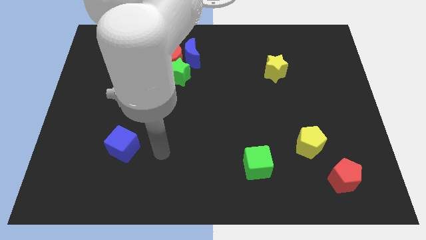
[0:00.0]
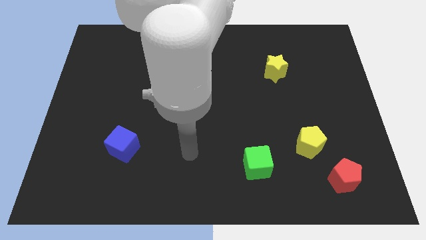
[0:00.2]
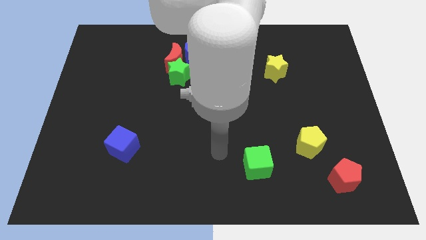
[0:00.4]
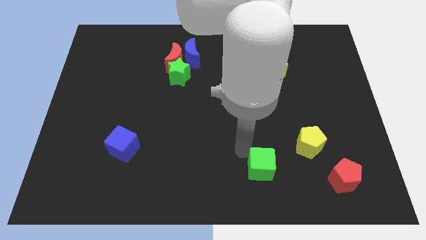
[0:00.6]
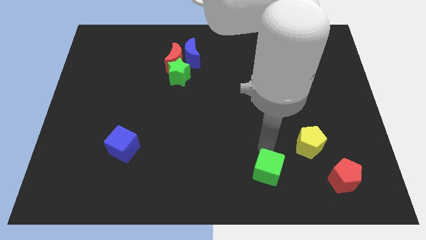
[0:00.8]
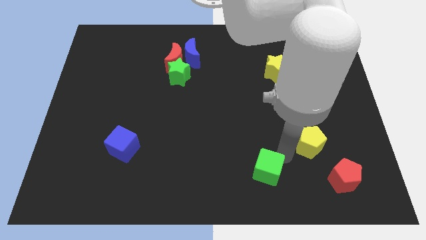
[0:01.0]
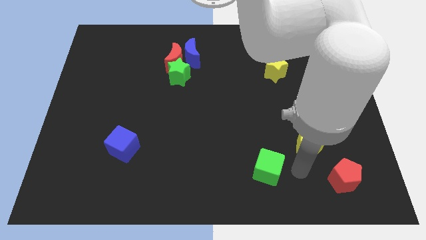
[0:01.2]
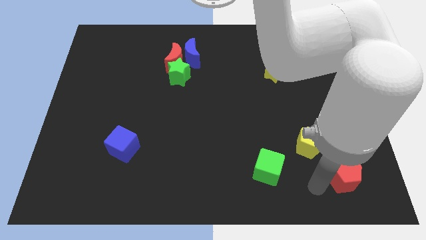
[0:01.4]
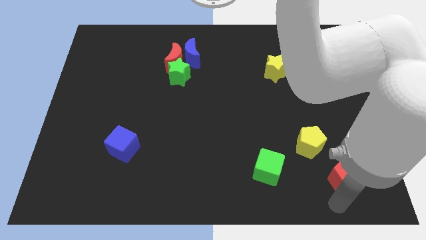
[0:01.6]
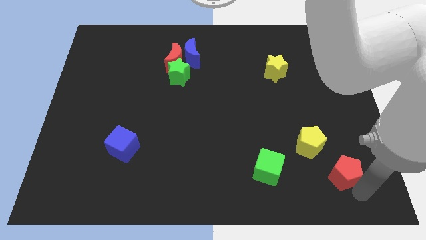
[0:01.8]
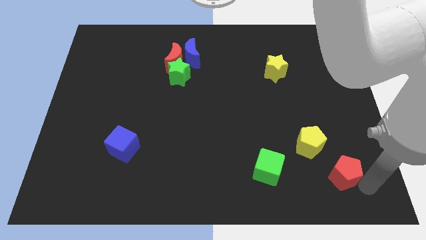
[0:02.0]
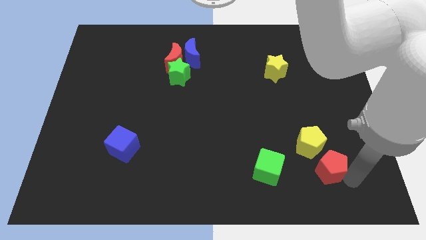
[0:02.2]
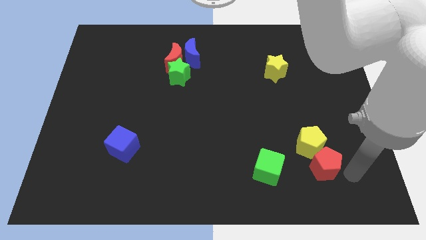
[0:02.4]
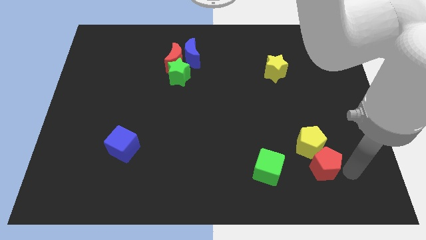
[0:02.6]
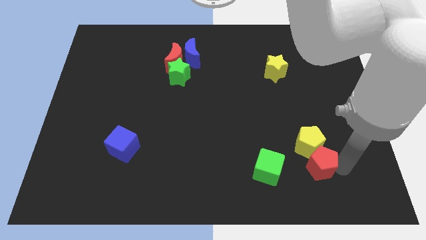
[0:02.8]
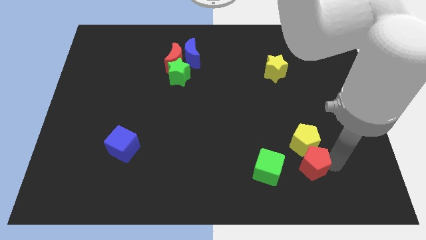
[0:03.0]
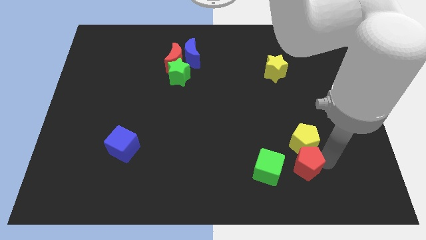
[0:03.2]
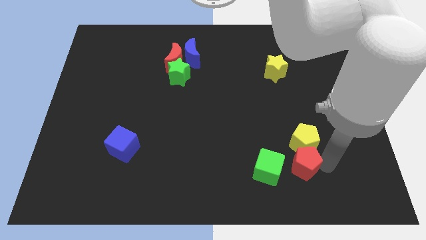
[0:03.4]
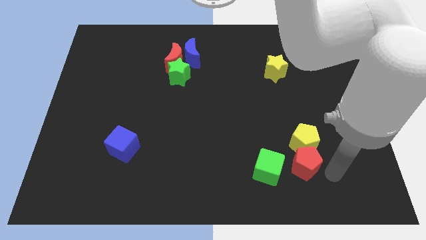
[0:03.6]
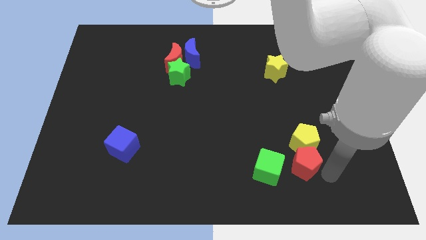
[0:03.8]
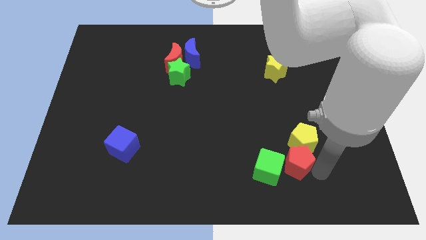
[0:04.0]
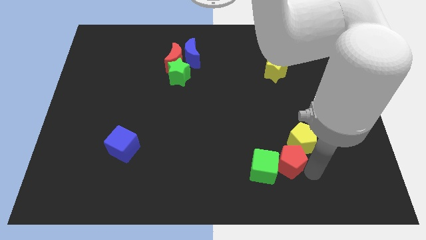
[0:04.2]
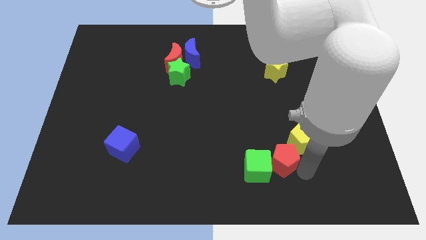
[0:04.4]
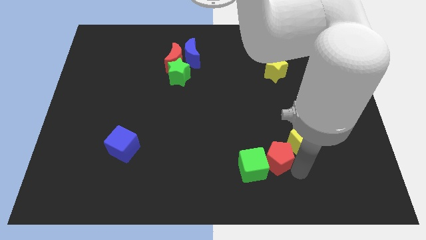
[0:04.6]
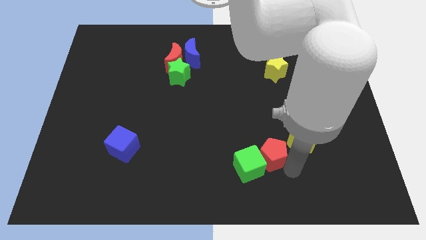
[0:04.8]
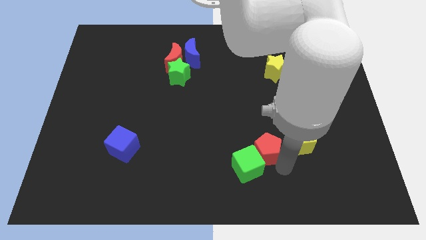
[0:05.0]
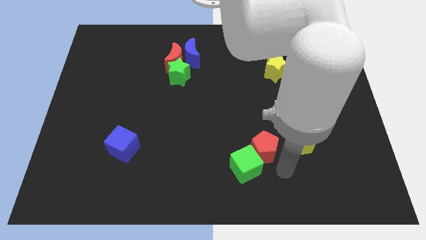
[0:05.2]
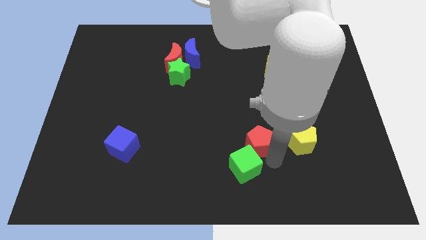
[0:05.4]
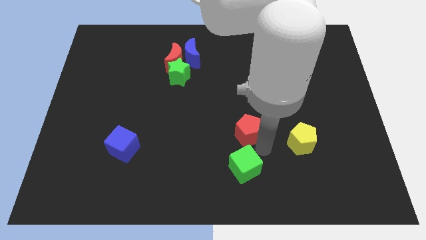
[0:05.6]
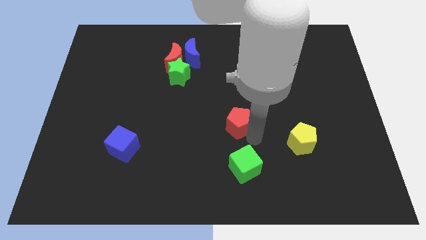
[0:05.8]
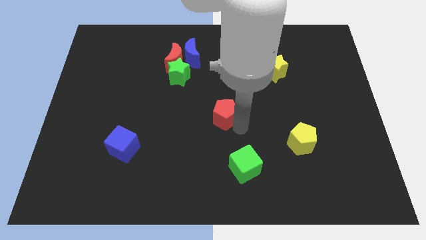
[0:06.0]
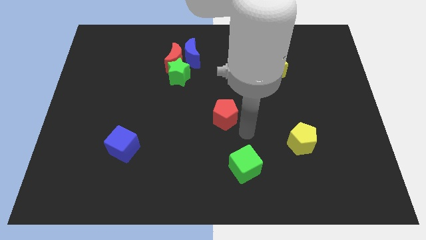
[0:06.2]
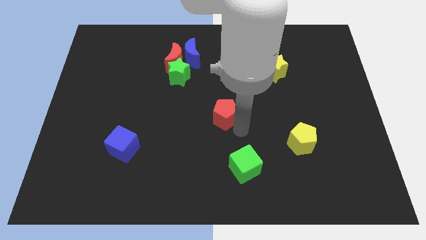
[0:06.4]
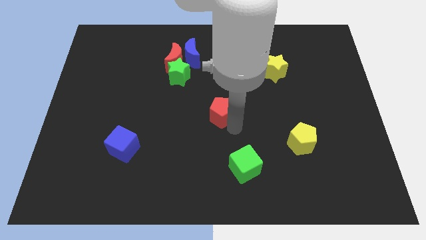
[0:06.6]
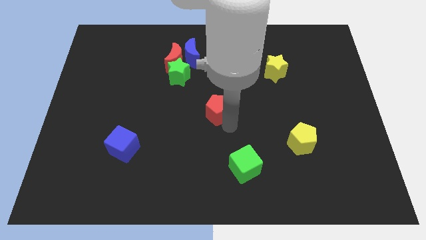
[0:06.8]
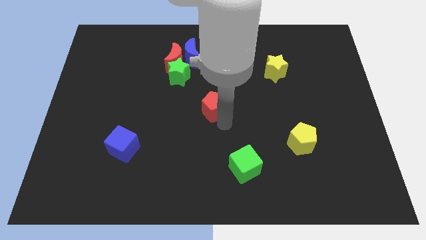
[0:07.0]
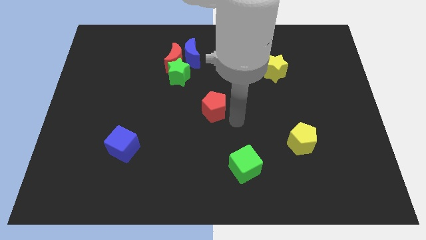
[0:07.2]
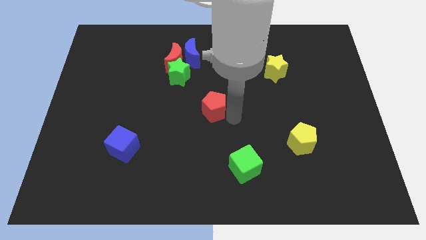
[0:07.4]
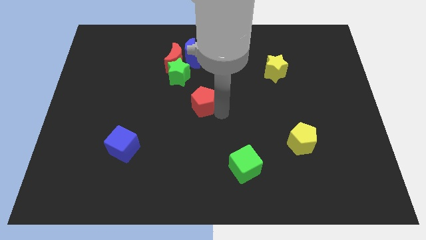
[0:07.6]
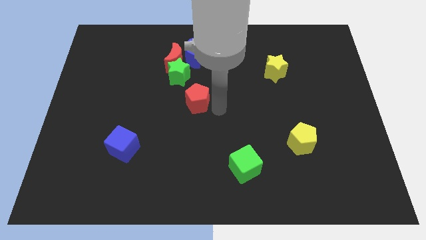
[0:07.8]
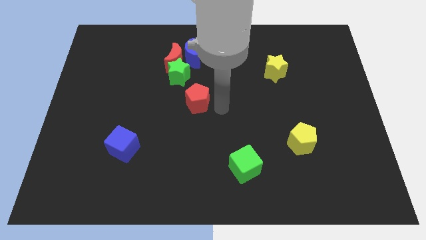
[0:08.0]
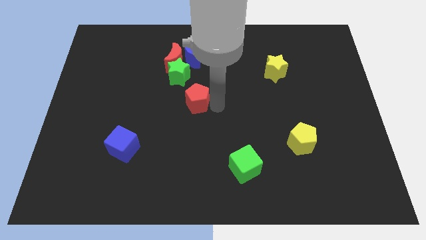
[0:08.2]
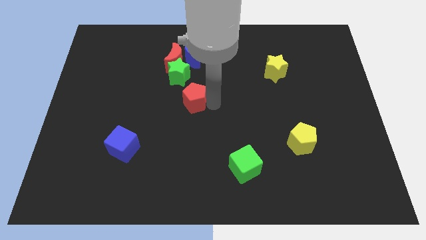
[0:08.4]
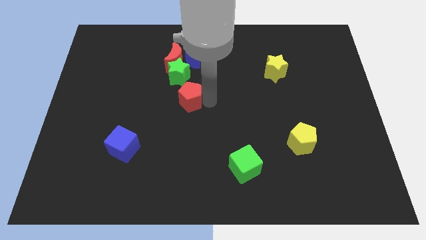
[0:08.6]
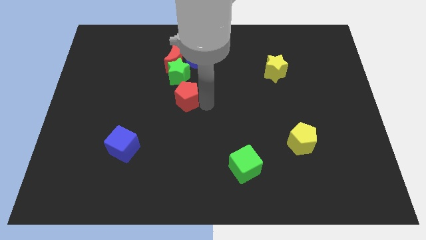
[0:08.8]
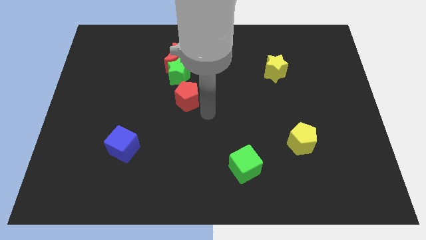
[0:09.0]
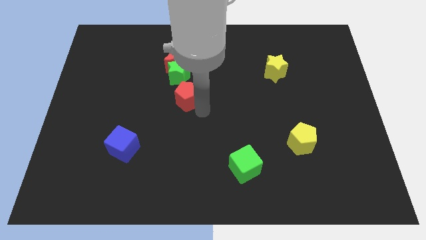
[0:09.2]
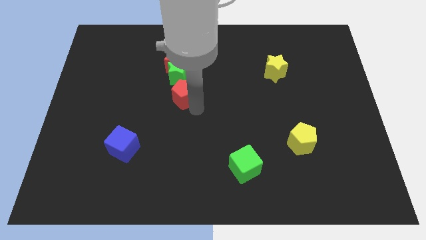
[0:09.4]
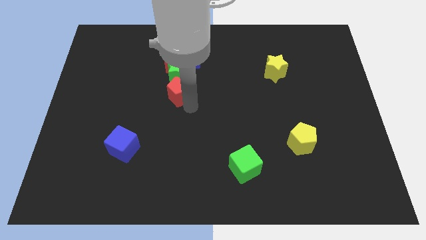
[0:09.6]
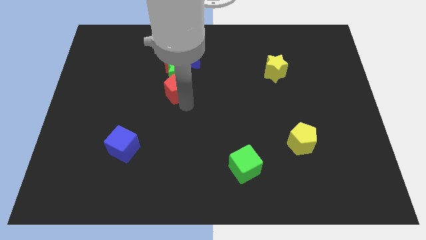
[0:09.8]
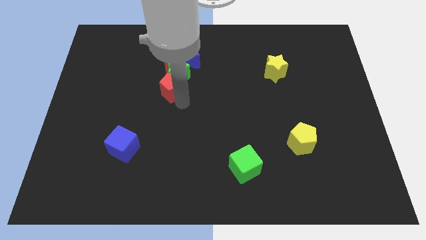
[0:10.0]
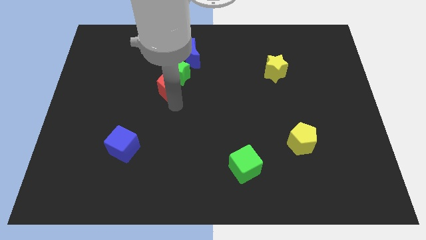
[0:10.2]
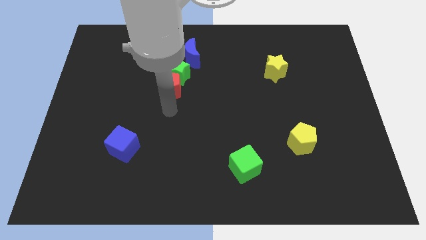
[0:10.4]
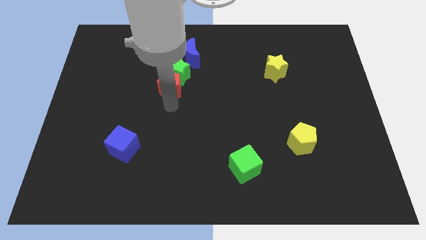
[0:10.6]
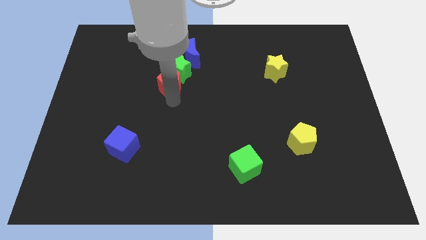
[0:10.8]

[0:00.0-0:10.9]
move the red pentagon to the bottom left of the blue moon
